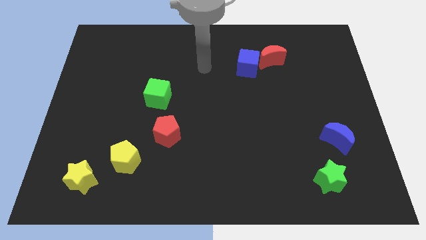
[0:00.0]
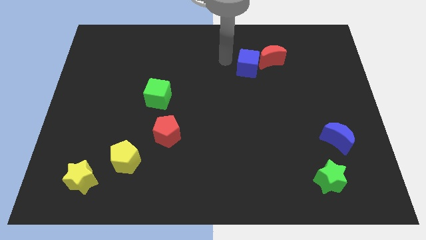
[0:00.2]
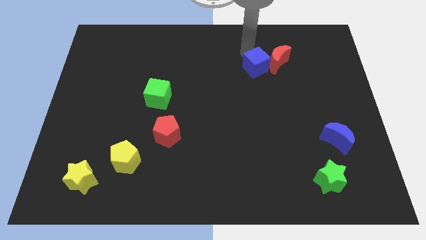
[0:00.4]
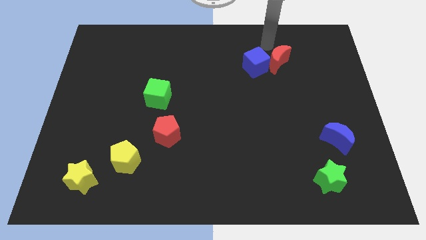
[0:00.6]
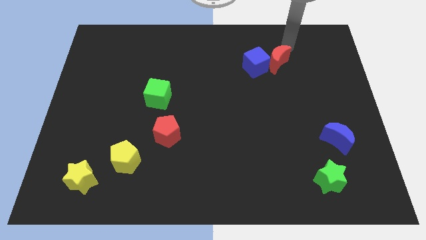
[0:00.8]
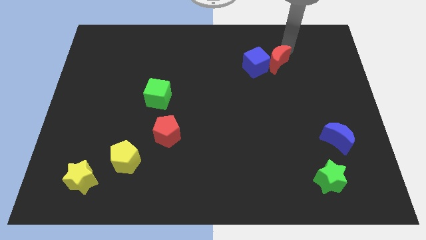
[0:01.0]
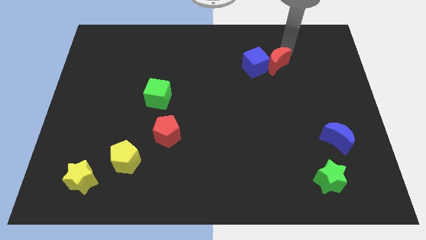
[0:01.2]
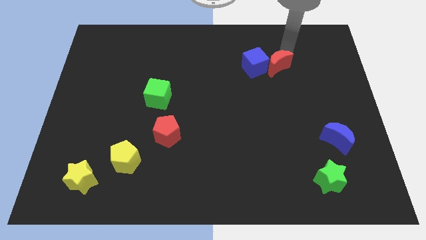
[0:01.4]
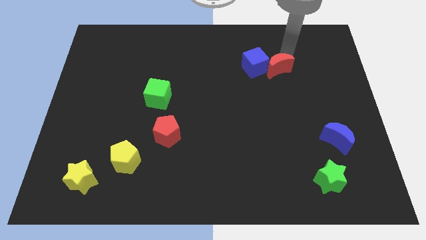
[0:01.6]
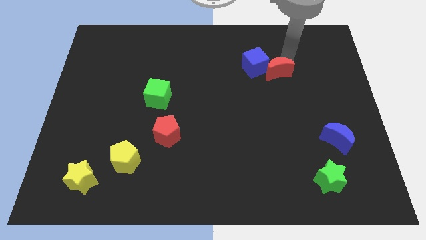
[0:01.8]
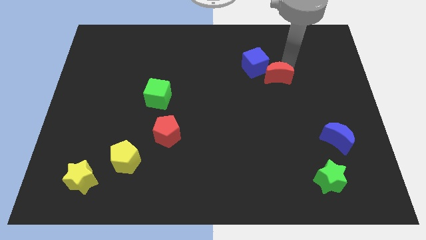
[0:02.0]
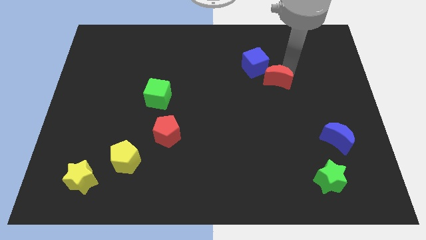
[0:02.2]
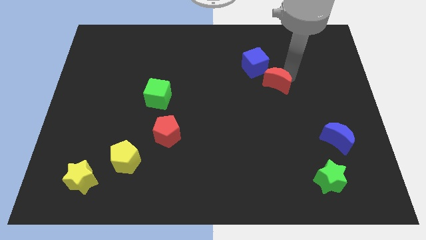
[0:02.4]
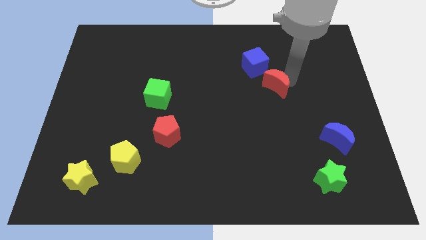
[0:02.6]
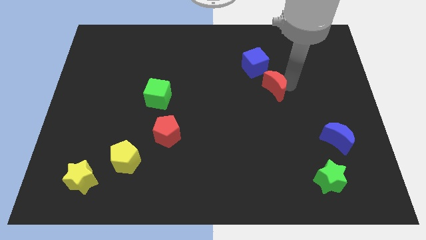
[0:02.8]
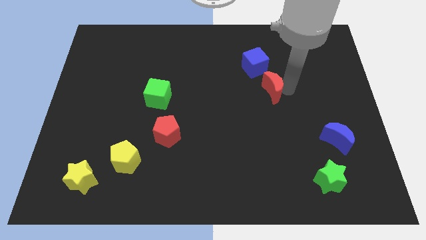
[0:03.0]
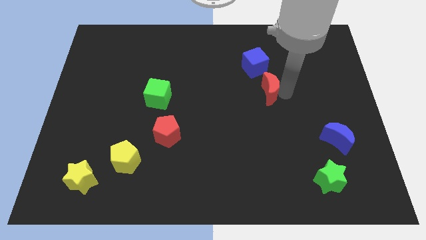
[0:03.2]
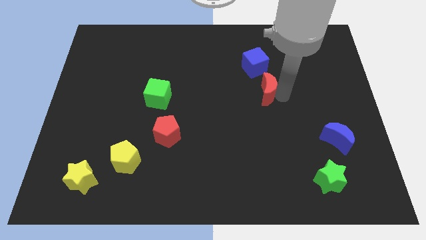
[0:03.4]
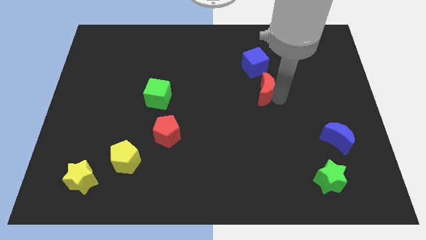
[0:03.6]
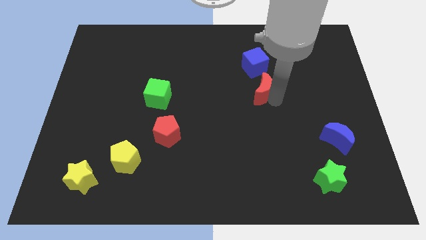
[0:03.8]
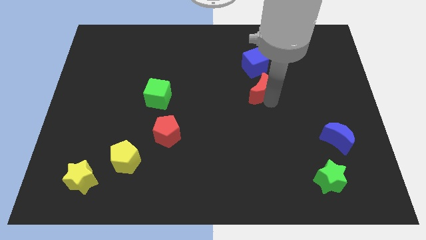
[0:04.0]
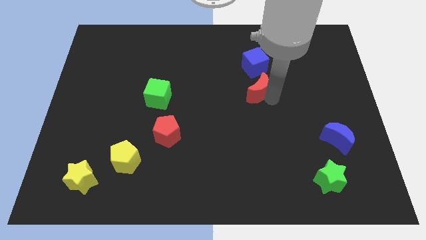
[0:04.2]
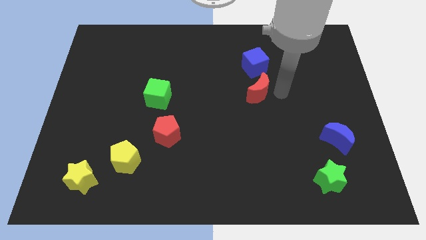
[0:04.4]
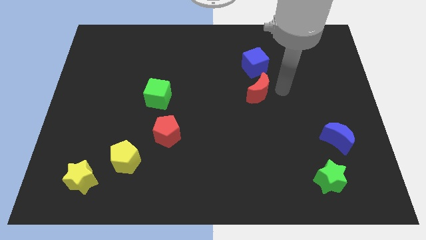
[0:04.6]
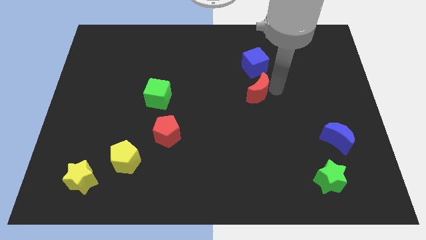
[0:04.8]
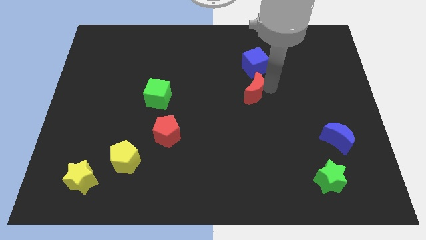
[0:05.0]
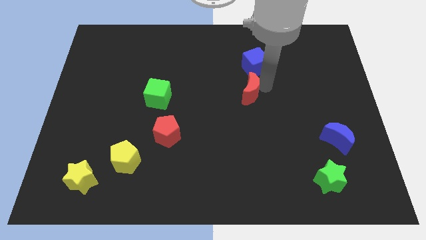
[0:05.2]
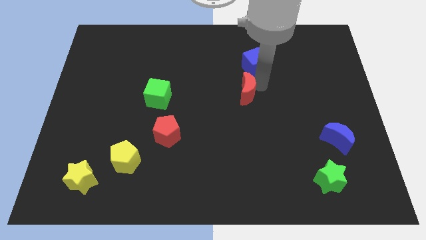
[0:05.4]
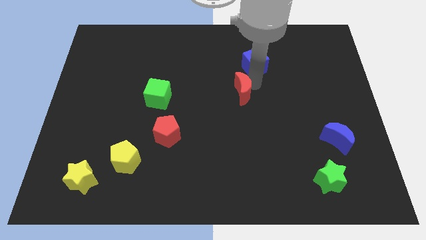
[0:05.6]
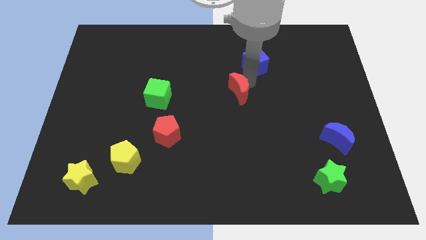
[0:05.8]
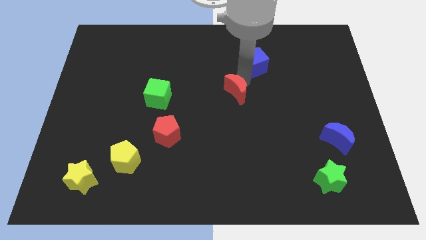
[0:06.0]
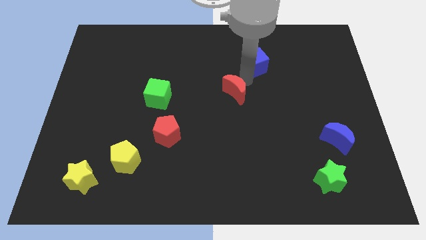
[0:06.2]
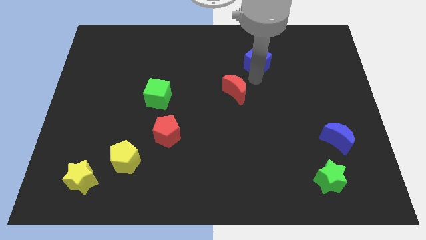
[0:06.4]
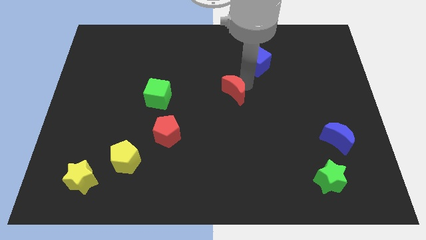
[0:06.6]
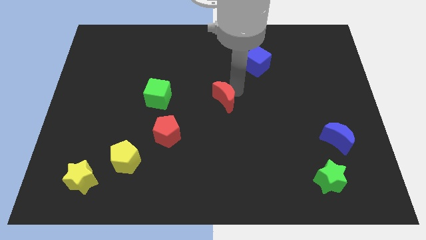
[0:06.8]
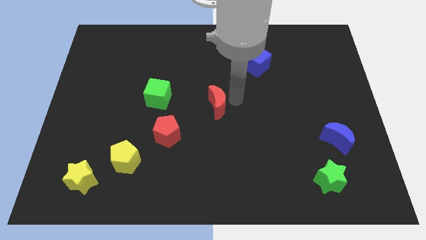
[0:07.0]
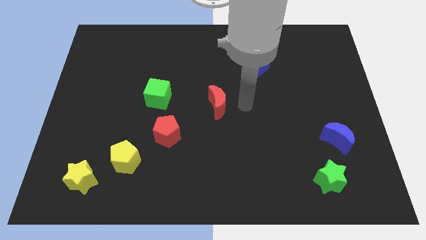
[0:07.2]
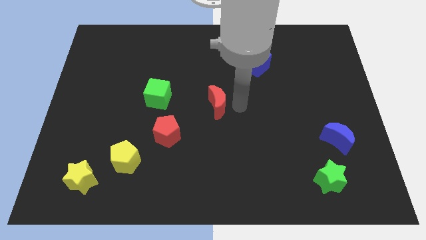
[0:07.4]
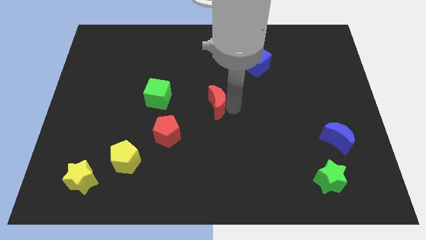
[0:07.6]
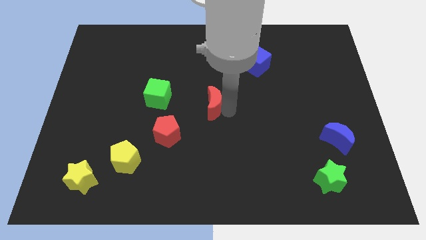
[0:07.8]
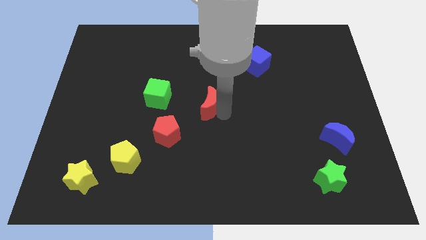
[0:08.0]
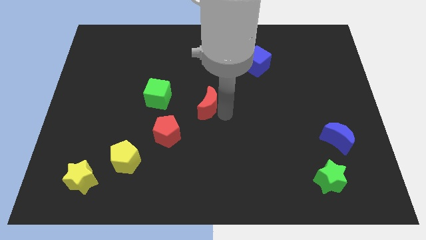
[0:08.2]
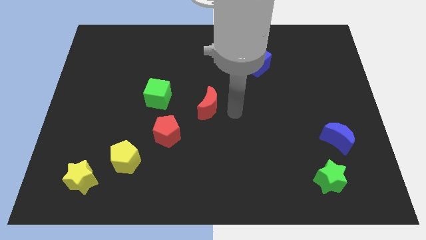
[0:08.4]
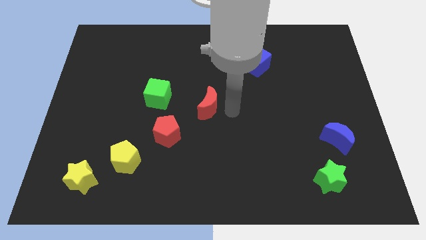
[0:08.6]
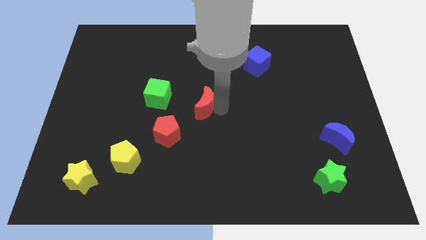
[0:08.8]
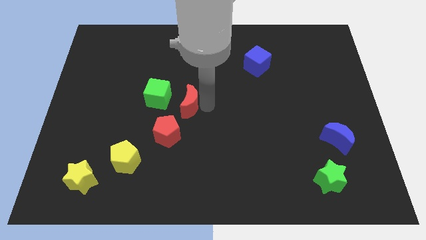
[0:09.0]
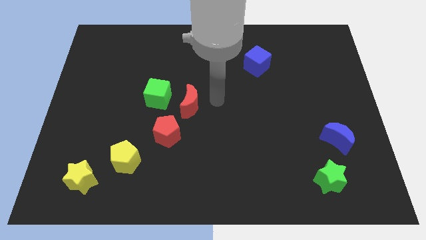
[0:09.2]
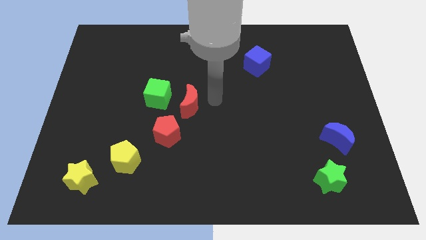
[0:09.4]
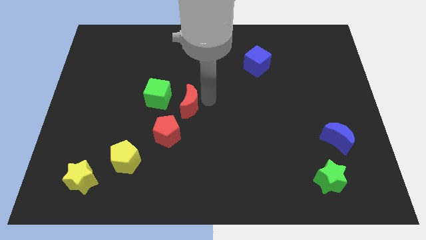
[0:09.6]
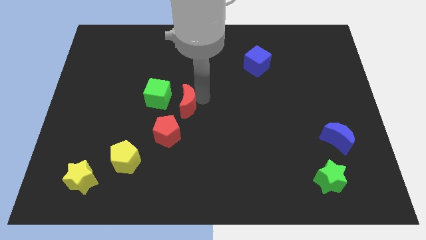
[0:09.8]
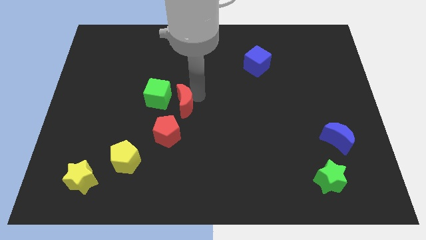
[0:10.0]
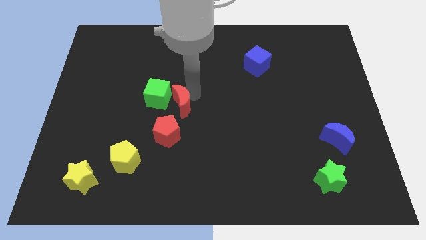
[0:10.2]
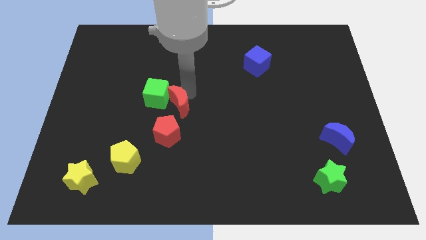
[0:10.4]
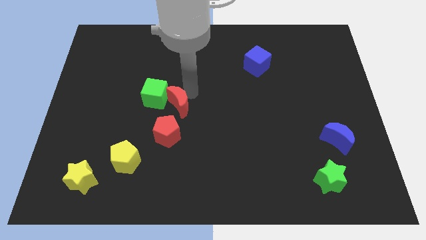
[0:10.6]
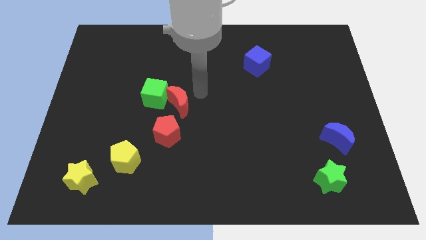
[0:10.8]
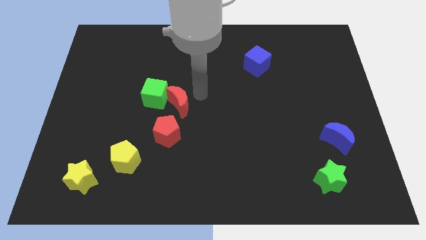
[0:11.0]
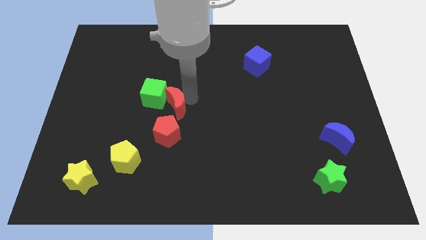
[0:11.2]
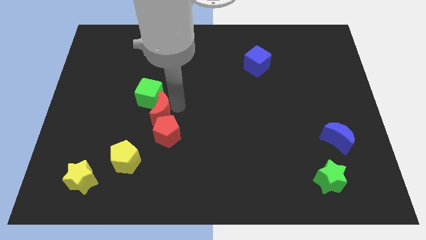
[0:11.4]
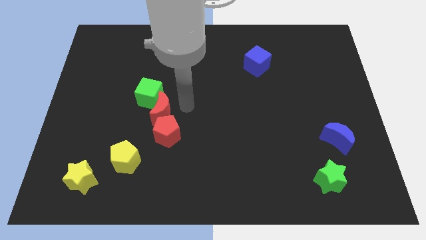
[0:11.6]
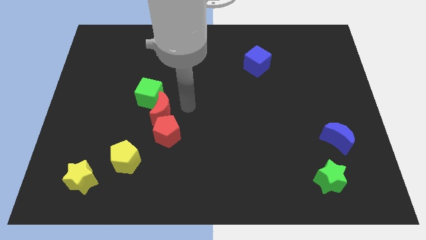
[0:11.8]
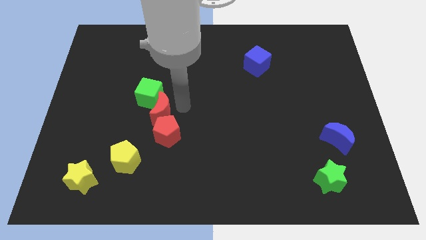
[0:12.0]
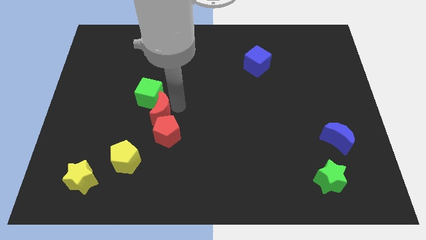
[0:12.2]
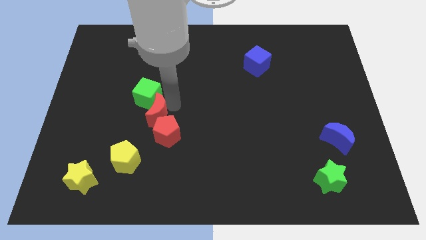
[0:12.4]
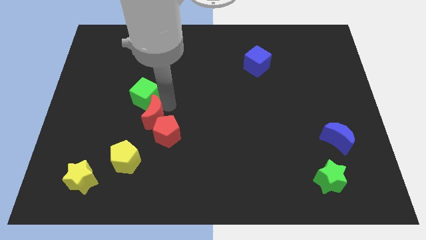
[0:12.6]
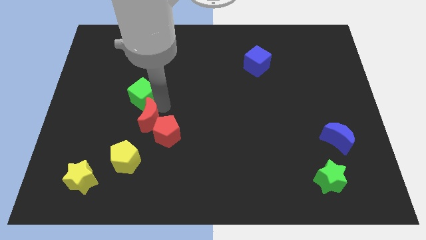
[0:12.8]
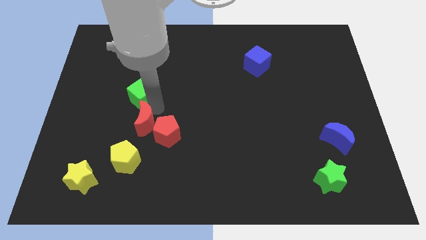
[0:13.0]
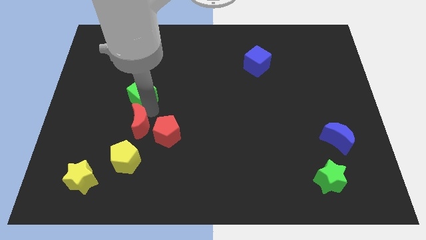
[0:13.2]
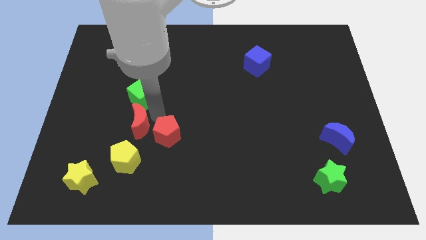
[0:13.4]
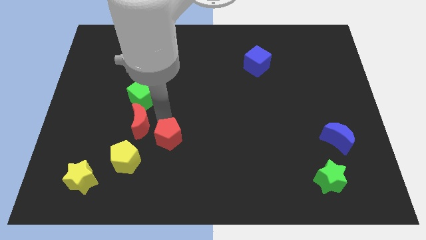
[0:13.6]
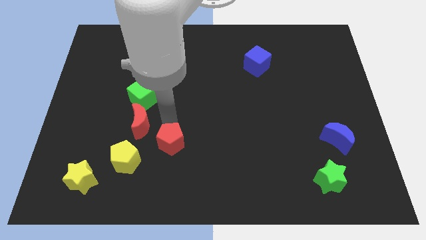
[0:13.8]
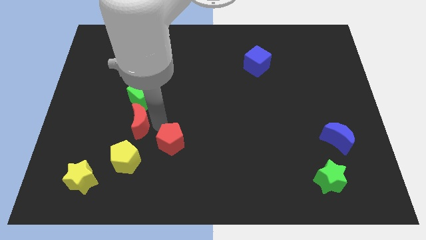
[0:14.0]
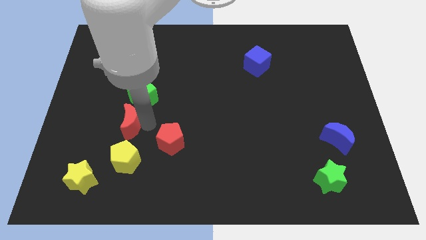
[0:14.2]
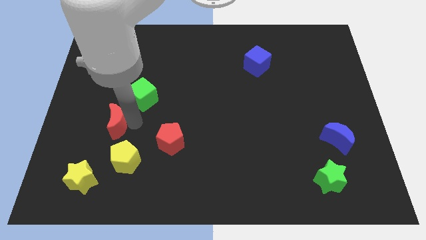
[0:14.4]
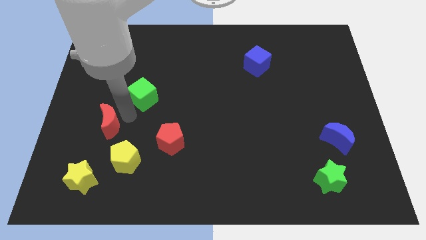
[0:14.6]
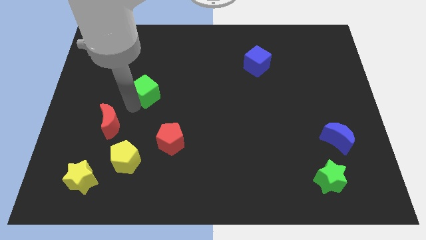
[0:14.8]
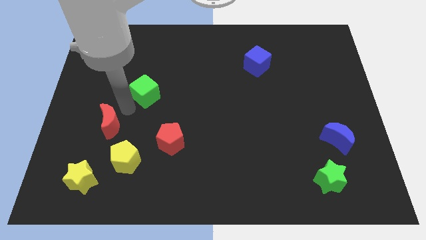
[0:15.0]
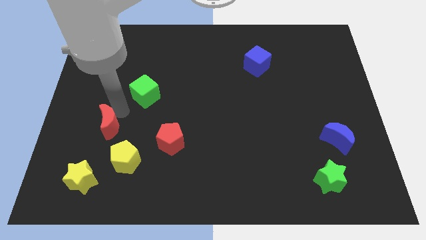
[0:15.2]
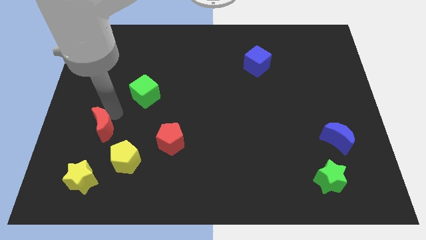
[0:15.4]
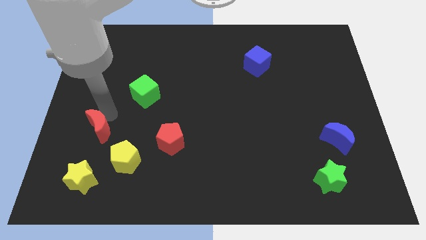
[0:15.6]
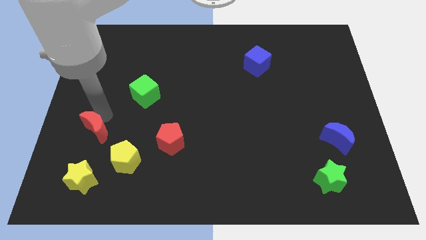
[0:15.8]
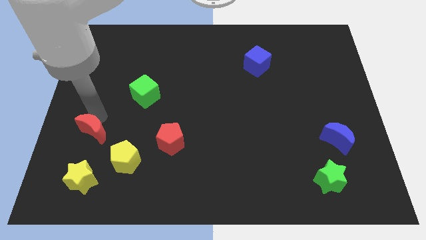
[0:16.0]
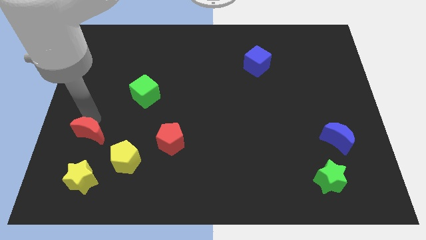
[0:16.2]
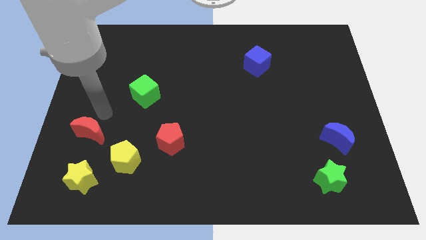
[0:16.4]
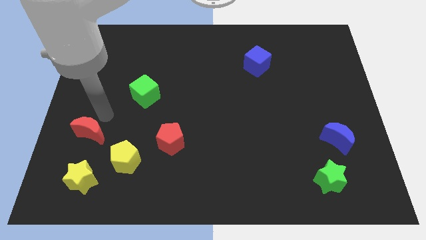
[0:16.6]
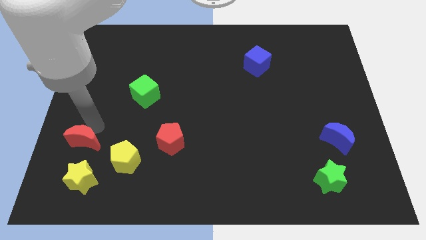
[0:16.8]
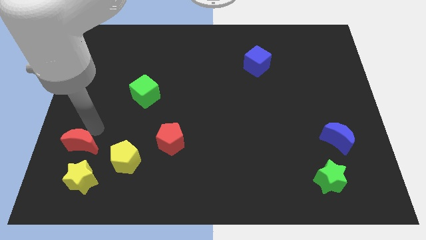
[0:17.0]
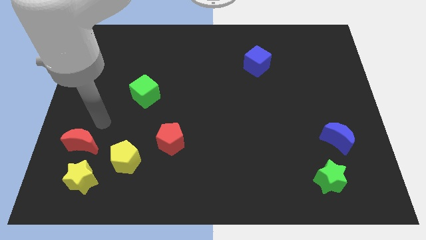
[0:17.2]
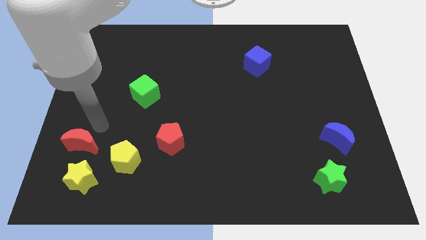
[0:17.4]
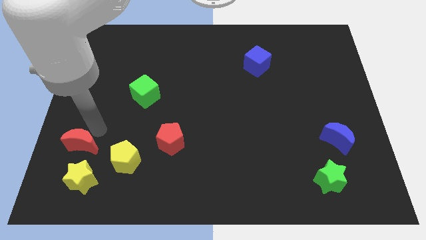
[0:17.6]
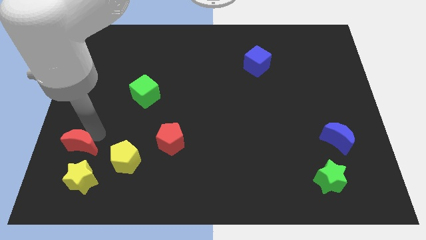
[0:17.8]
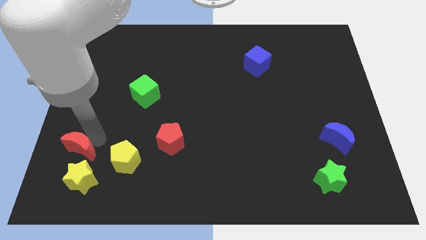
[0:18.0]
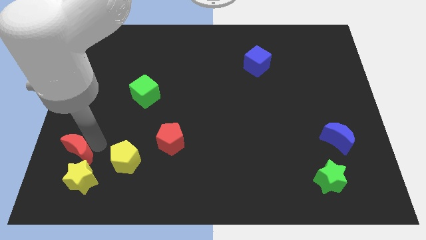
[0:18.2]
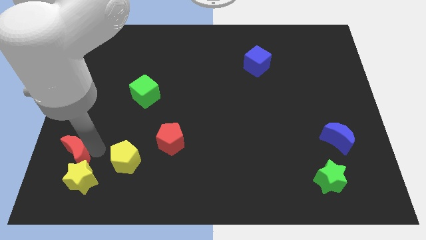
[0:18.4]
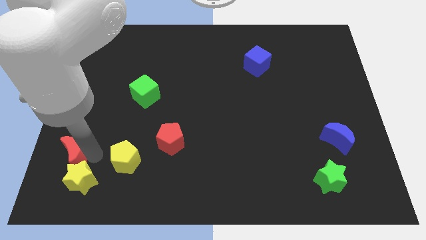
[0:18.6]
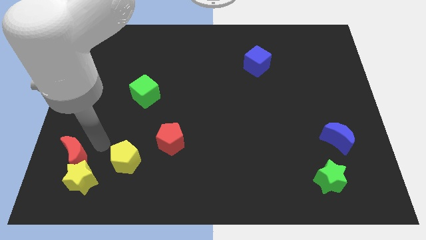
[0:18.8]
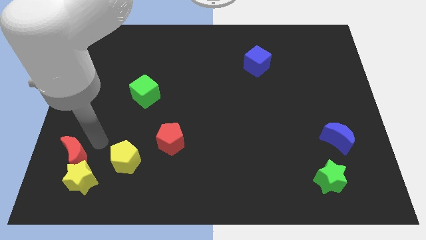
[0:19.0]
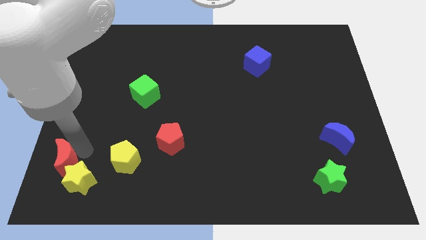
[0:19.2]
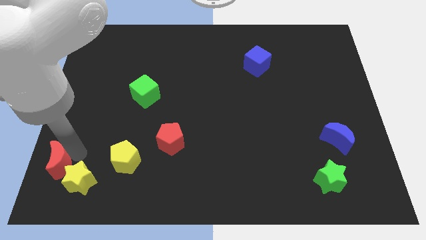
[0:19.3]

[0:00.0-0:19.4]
push the red moon to the bottom left of the board
